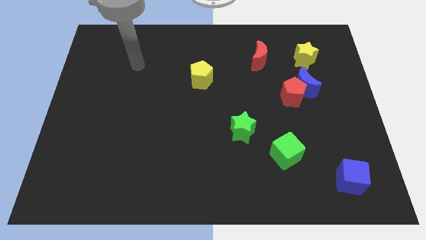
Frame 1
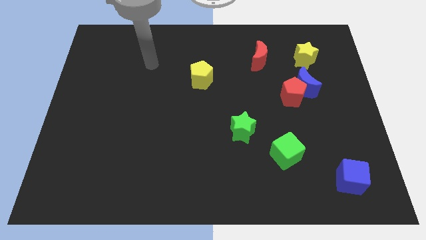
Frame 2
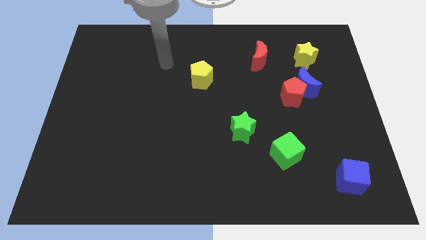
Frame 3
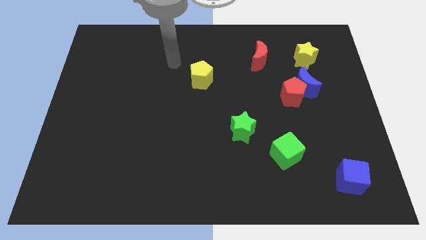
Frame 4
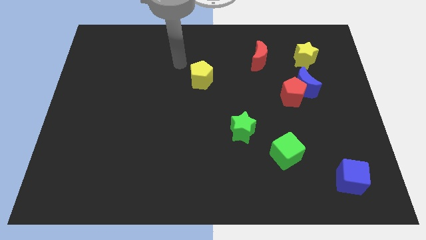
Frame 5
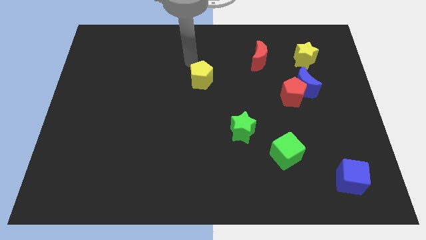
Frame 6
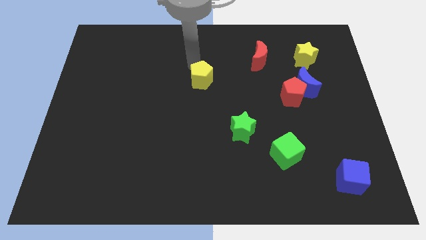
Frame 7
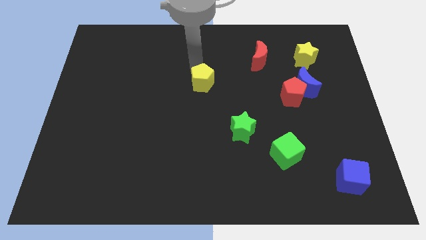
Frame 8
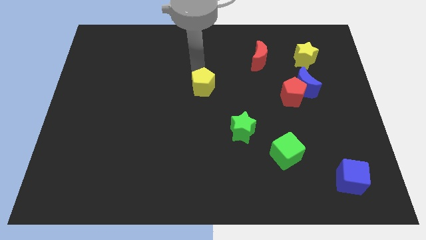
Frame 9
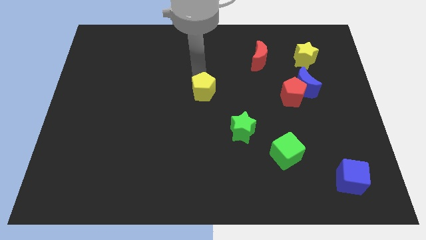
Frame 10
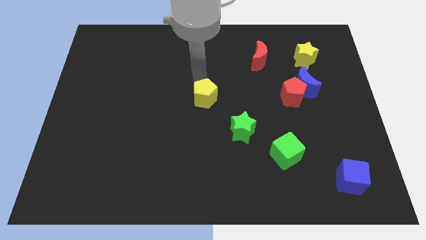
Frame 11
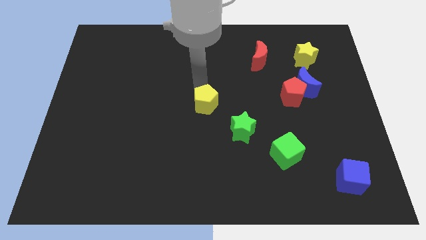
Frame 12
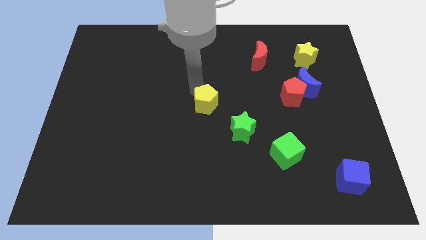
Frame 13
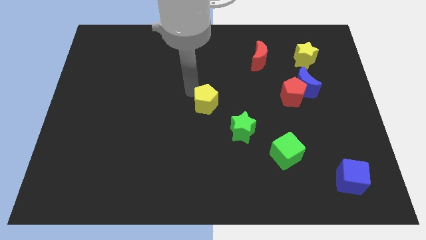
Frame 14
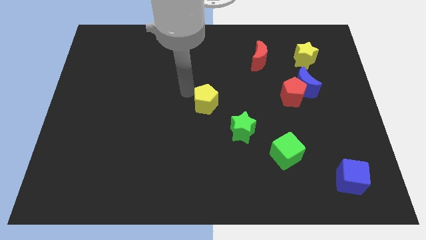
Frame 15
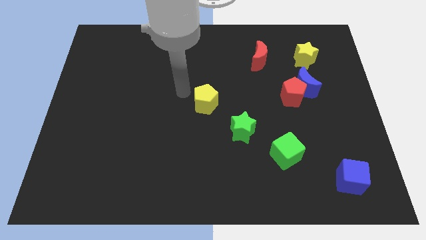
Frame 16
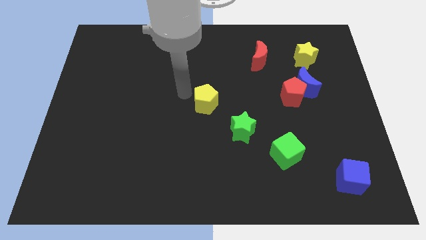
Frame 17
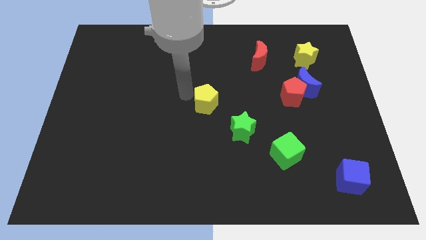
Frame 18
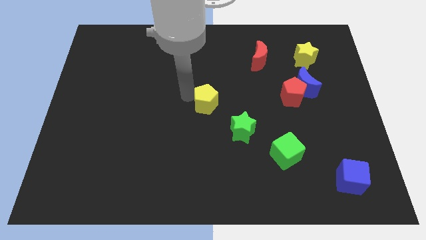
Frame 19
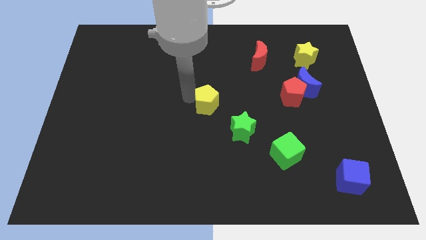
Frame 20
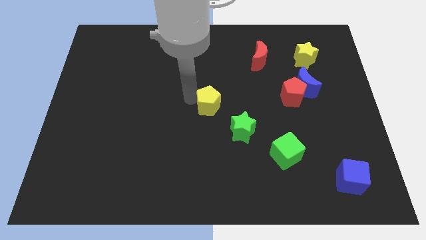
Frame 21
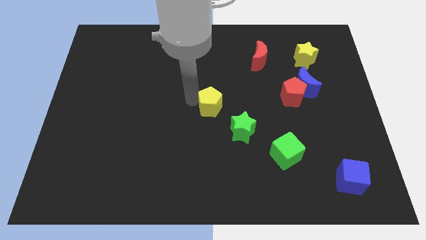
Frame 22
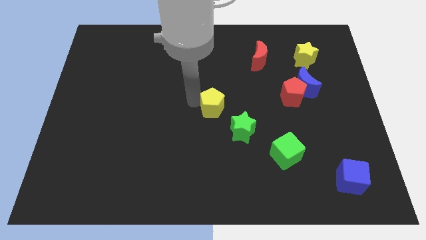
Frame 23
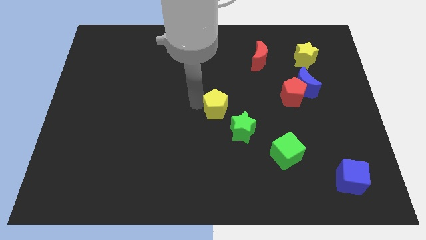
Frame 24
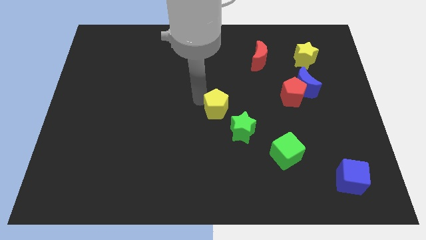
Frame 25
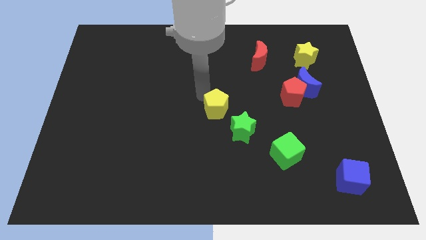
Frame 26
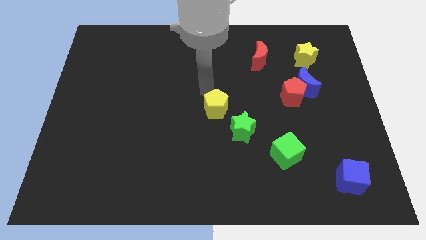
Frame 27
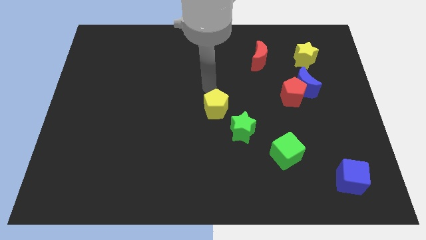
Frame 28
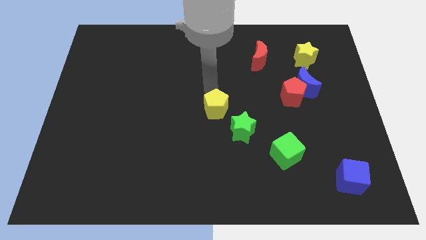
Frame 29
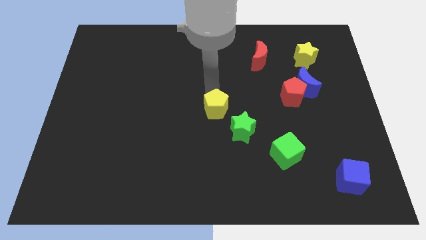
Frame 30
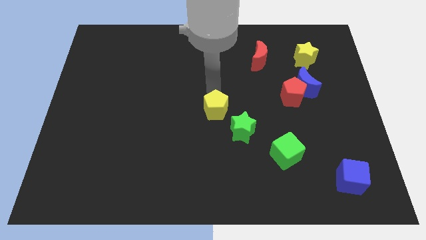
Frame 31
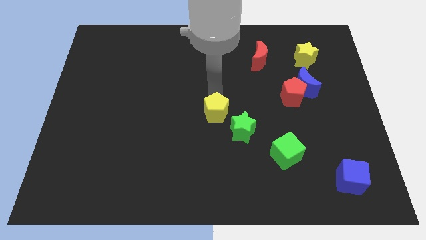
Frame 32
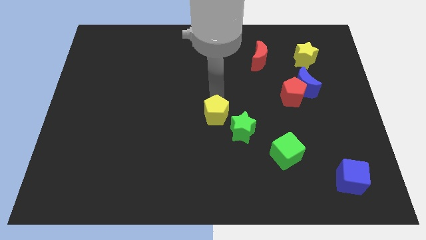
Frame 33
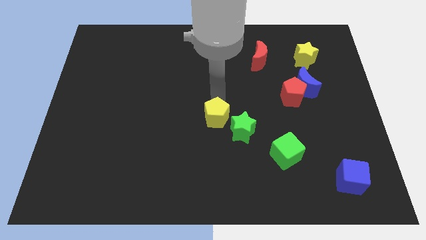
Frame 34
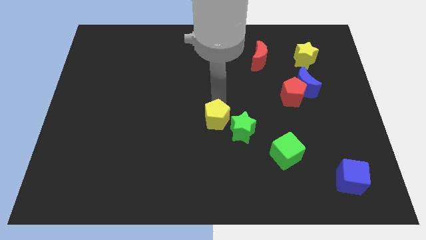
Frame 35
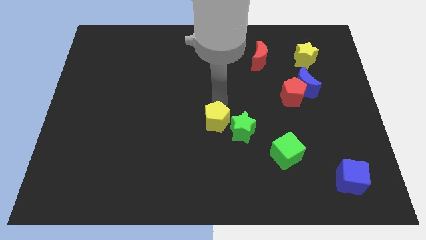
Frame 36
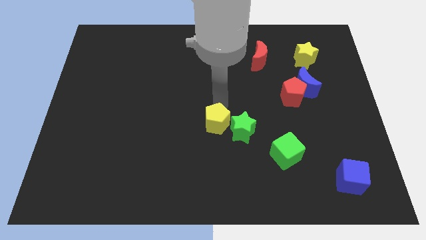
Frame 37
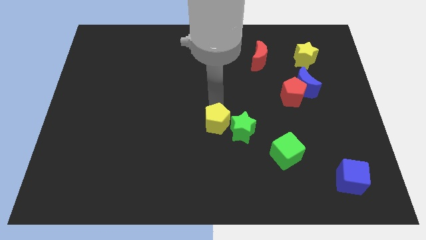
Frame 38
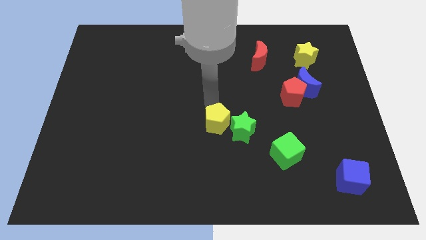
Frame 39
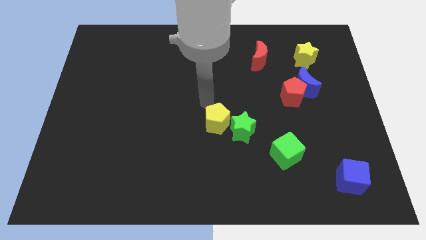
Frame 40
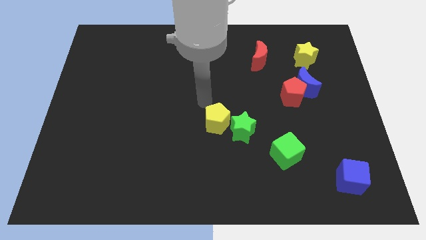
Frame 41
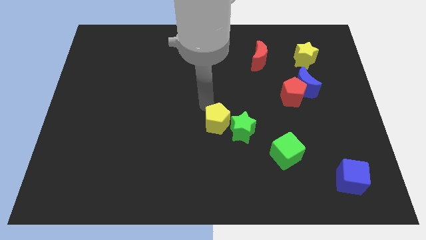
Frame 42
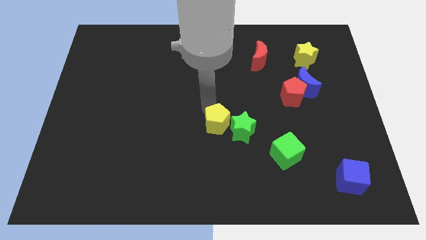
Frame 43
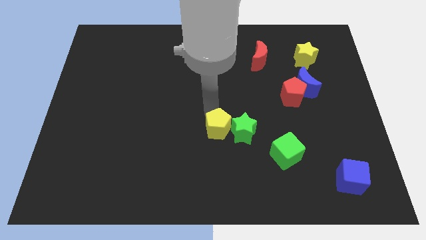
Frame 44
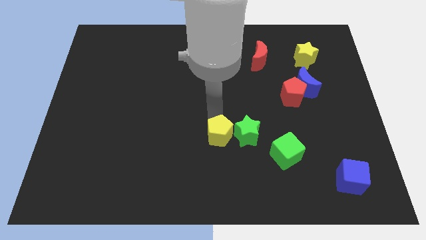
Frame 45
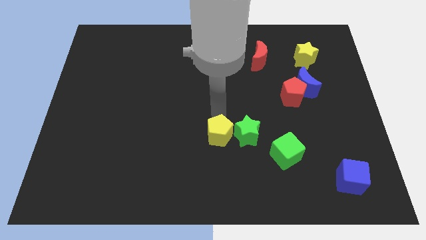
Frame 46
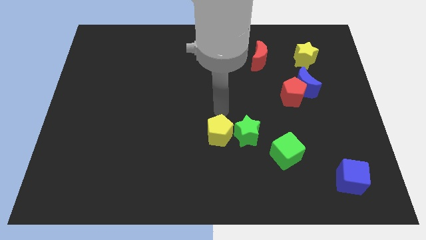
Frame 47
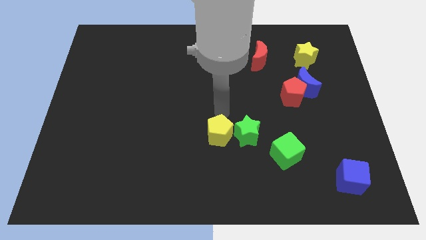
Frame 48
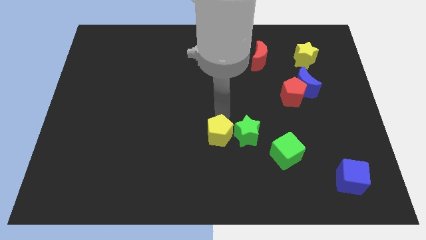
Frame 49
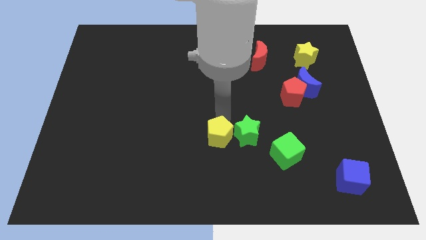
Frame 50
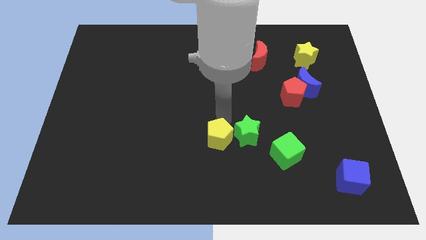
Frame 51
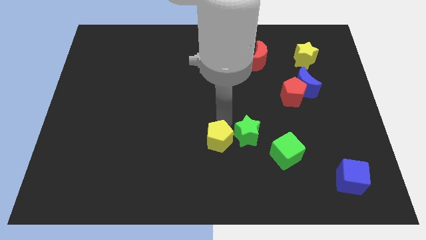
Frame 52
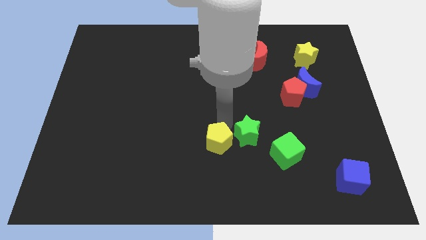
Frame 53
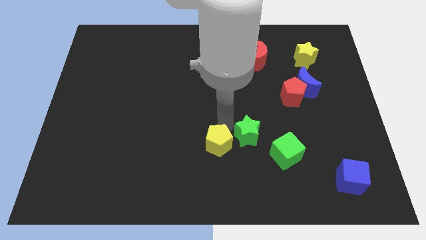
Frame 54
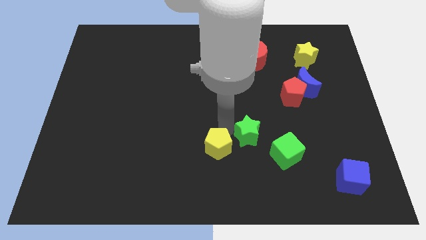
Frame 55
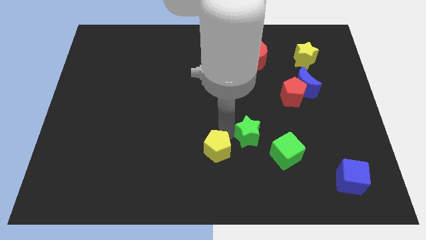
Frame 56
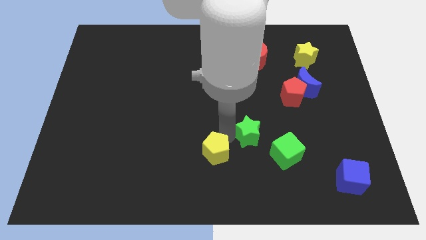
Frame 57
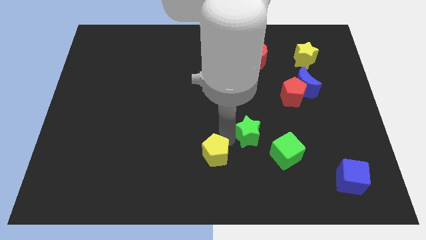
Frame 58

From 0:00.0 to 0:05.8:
put the yellow pentagon to the bottom

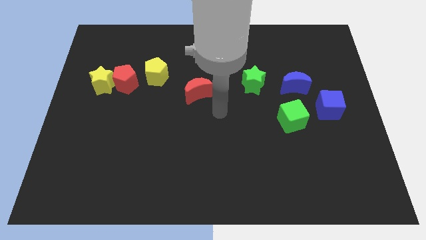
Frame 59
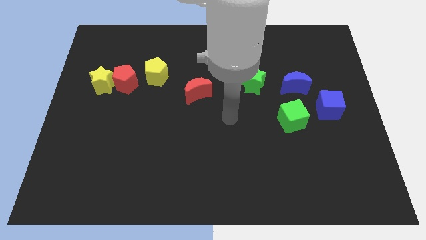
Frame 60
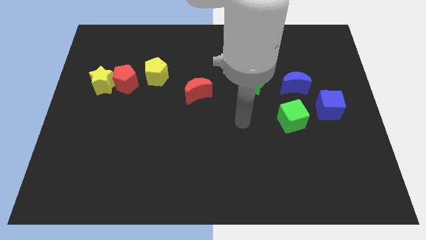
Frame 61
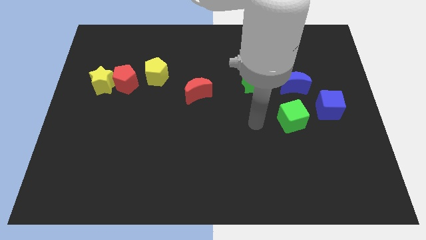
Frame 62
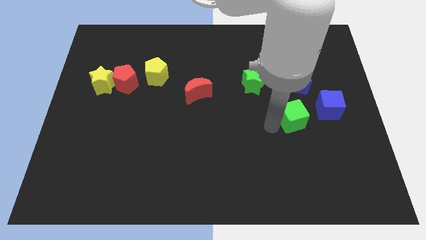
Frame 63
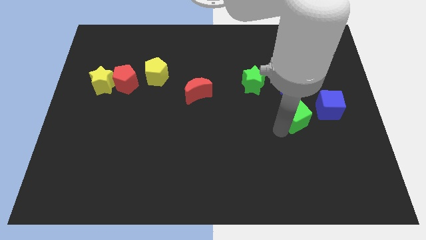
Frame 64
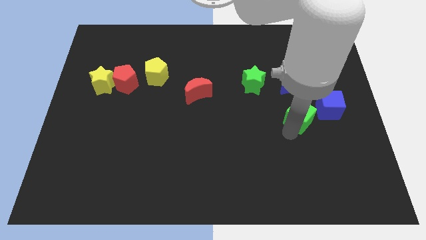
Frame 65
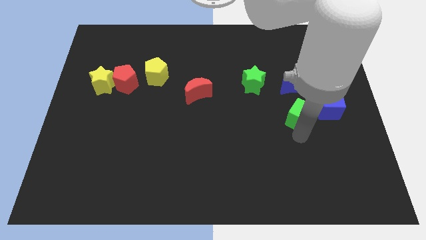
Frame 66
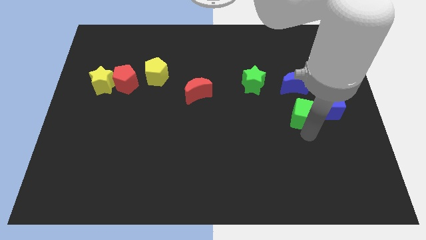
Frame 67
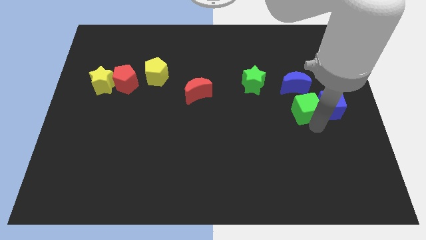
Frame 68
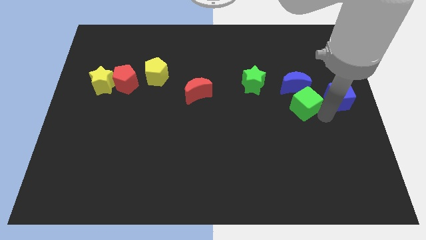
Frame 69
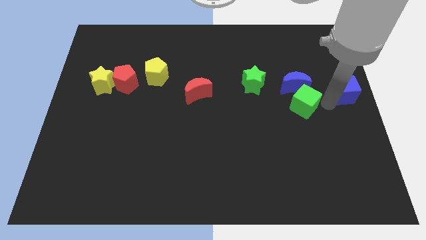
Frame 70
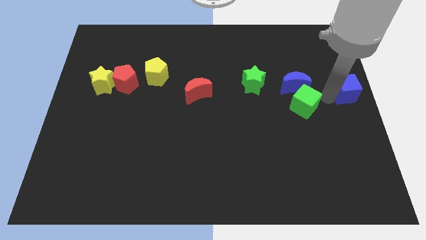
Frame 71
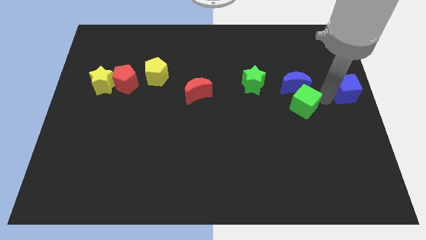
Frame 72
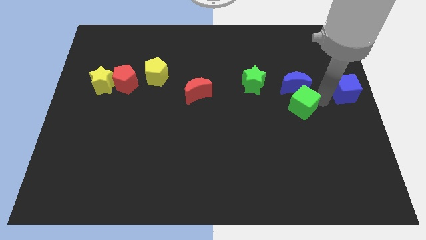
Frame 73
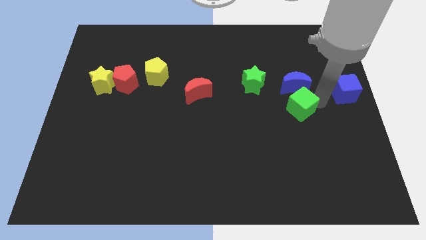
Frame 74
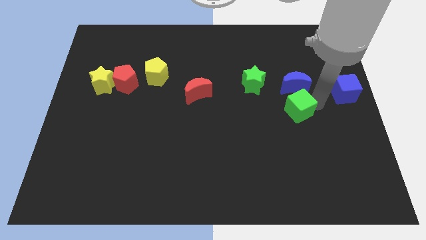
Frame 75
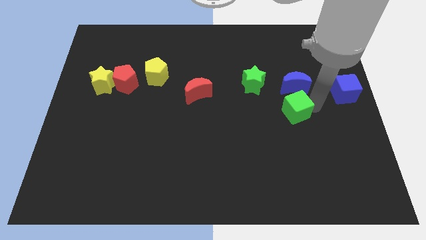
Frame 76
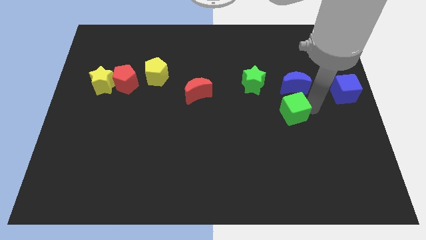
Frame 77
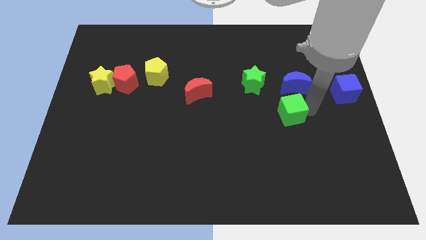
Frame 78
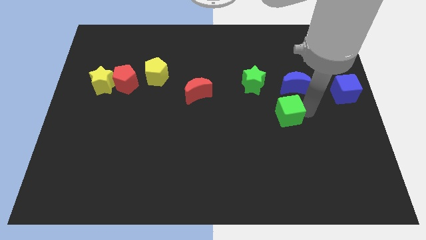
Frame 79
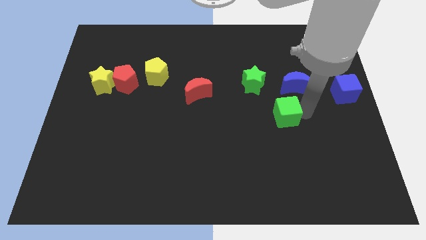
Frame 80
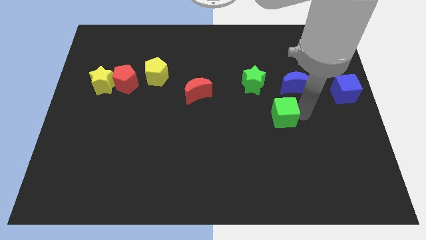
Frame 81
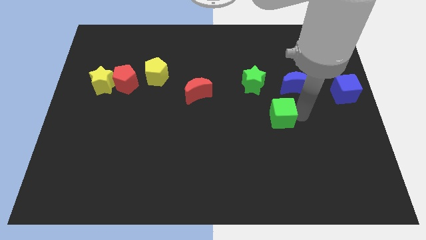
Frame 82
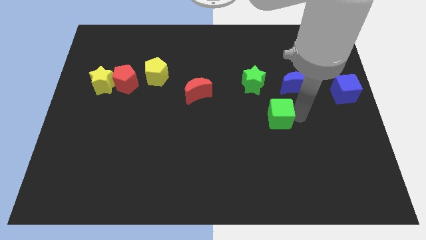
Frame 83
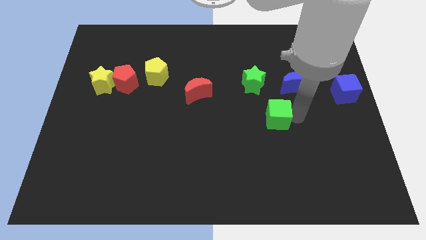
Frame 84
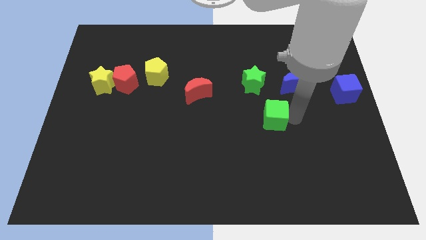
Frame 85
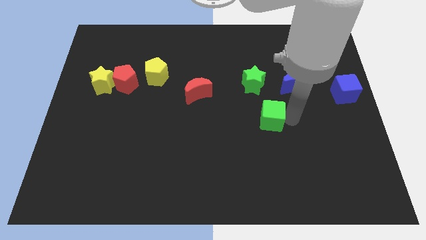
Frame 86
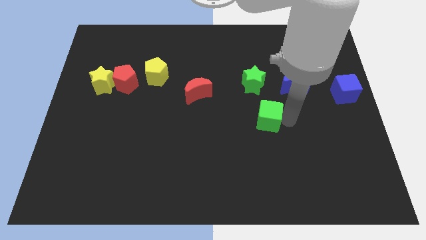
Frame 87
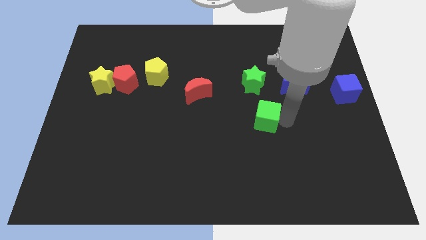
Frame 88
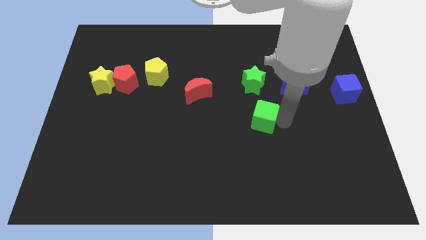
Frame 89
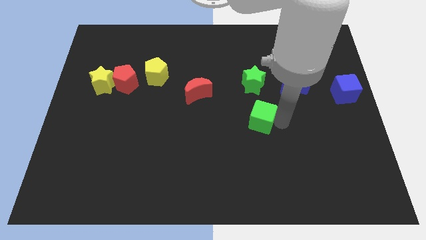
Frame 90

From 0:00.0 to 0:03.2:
push the green cube to the middle
